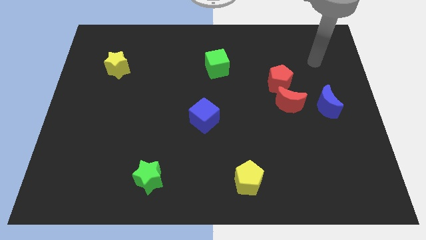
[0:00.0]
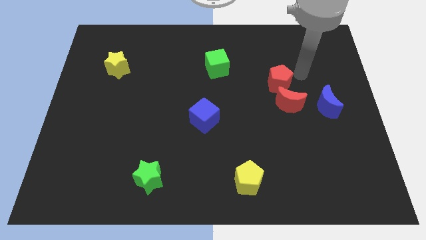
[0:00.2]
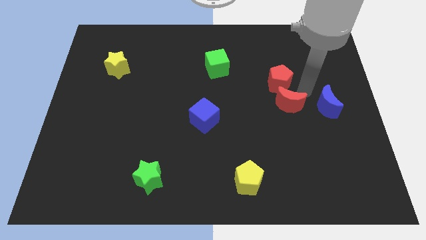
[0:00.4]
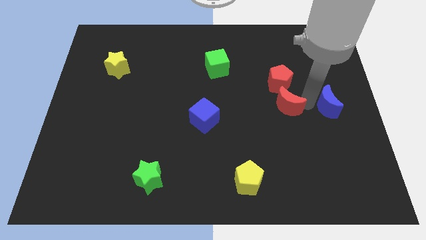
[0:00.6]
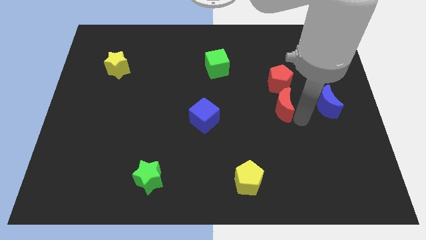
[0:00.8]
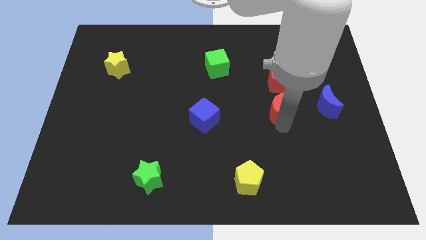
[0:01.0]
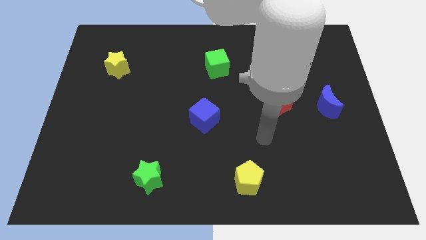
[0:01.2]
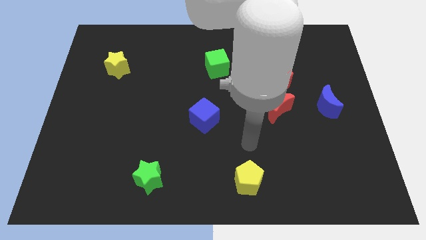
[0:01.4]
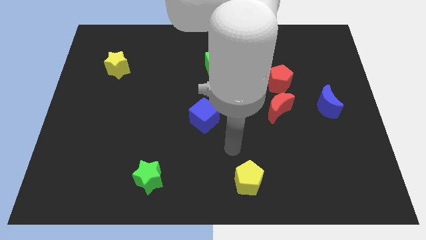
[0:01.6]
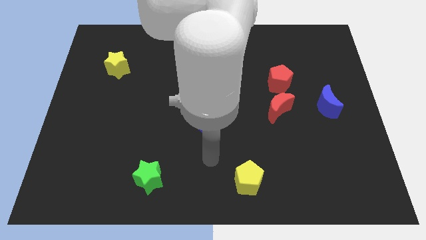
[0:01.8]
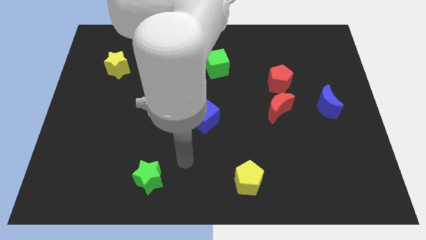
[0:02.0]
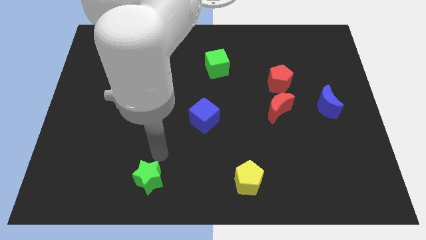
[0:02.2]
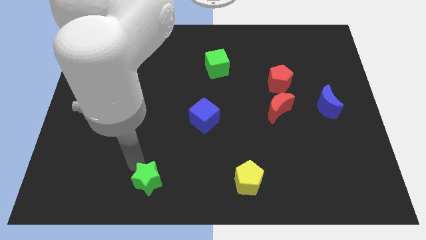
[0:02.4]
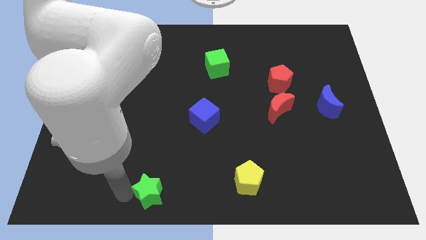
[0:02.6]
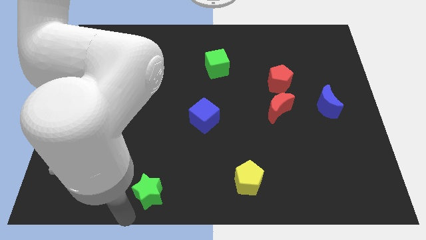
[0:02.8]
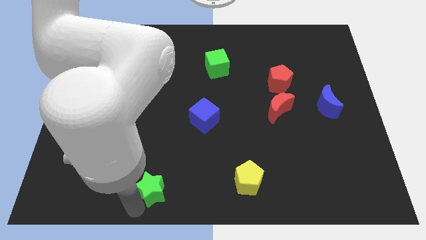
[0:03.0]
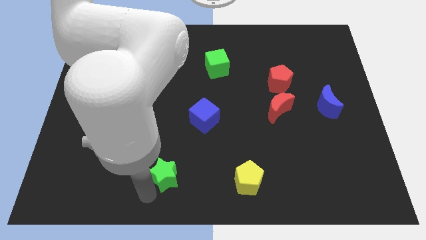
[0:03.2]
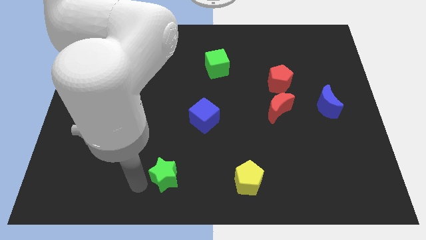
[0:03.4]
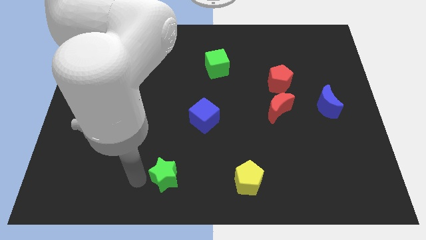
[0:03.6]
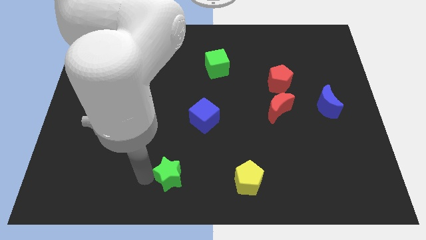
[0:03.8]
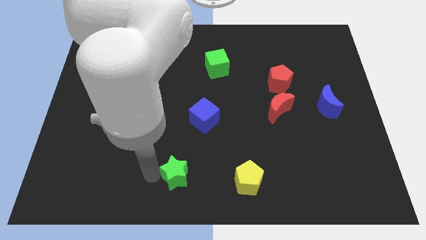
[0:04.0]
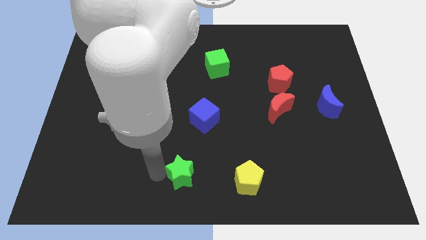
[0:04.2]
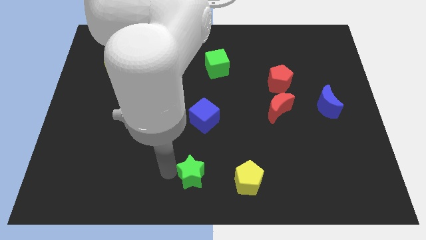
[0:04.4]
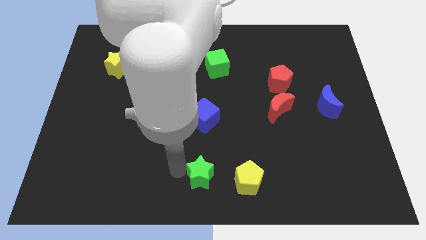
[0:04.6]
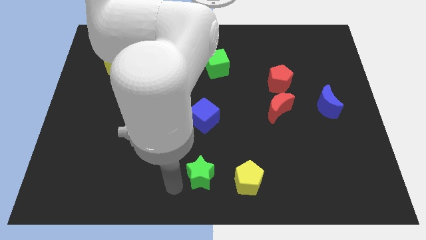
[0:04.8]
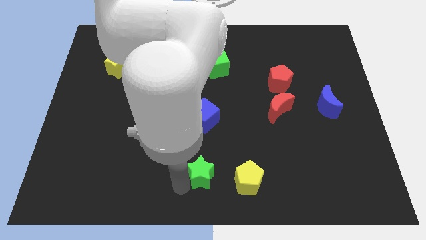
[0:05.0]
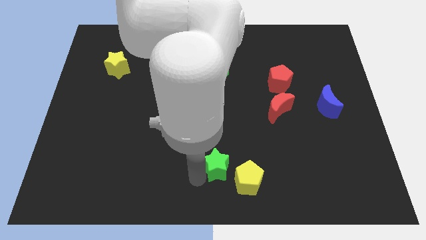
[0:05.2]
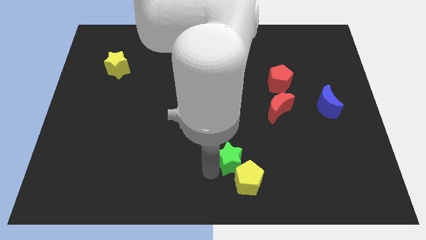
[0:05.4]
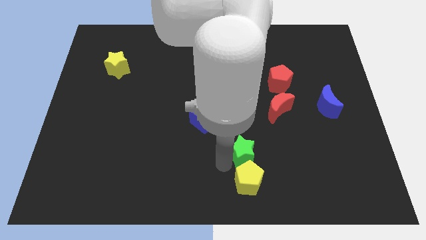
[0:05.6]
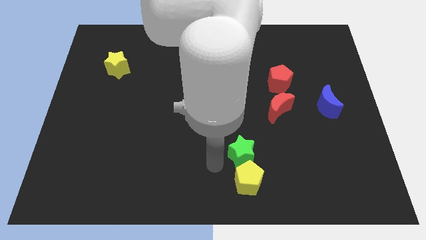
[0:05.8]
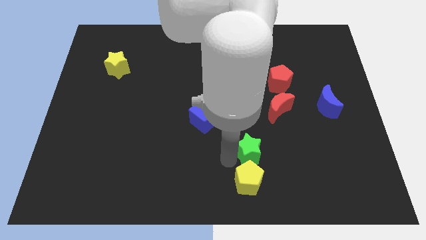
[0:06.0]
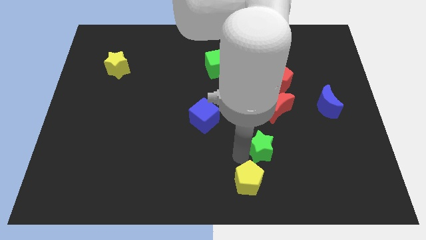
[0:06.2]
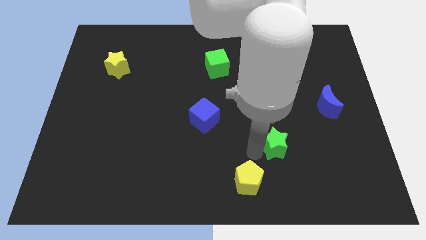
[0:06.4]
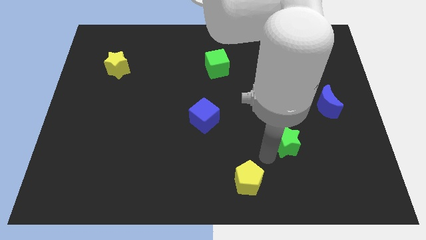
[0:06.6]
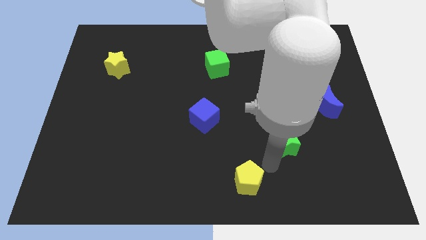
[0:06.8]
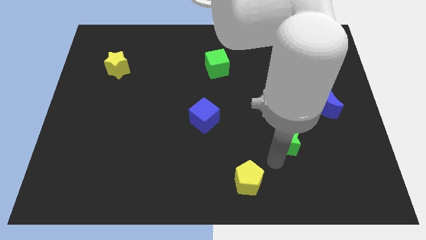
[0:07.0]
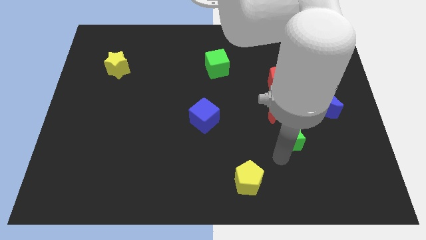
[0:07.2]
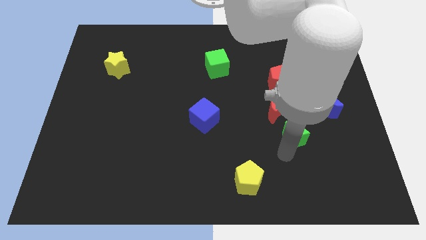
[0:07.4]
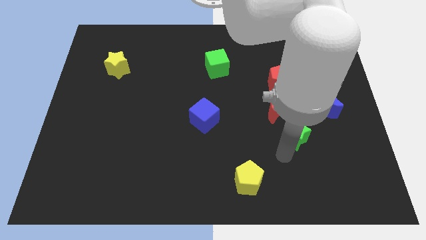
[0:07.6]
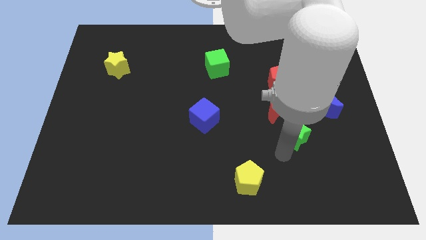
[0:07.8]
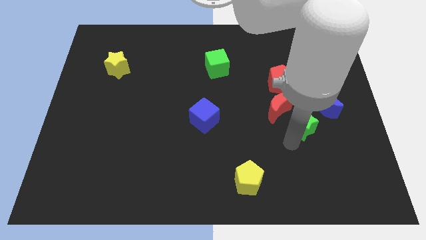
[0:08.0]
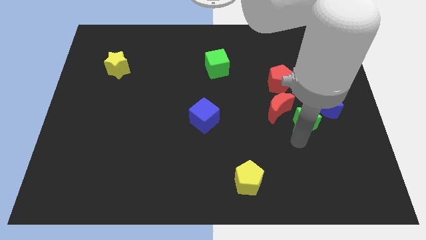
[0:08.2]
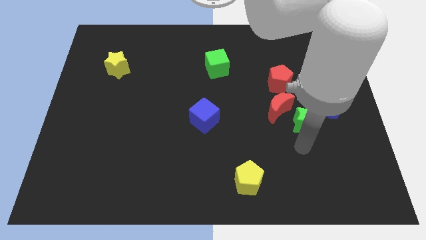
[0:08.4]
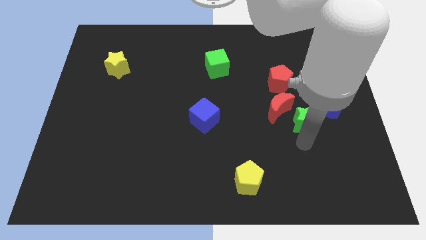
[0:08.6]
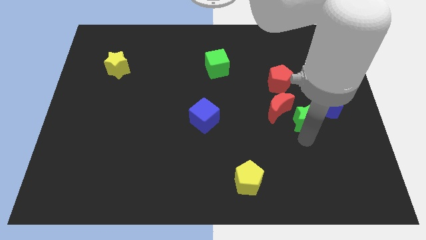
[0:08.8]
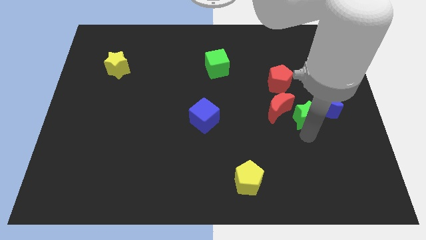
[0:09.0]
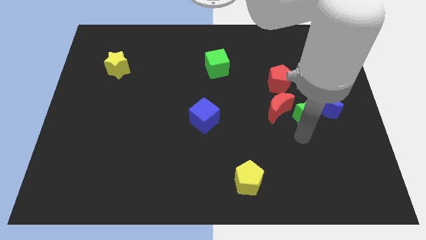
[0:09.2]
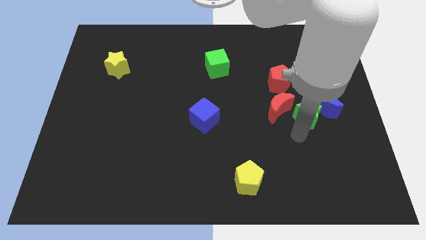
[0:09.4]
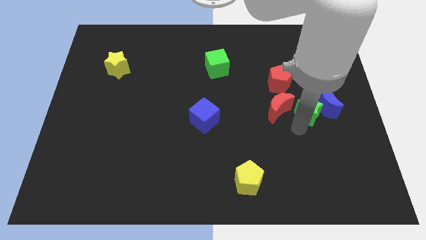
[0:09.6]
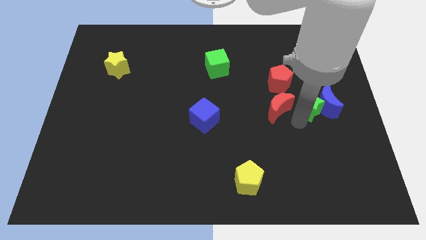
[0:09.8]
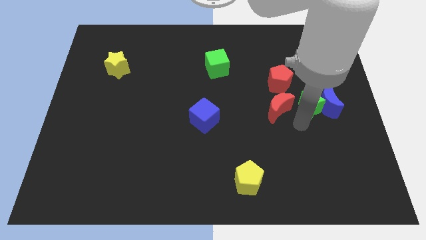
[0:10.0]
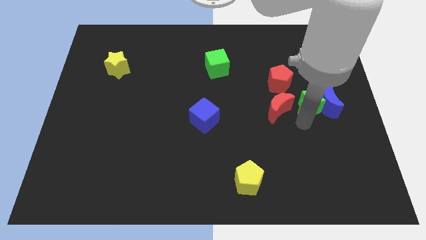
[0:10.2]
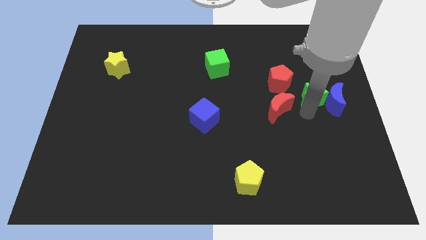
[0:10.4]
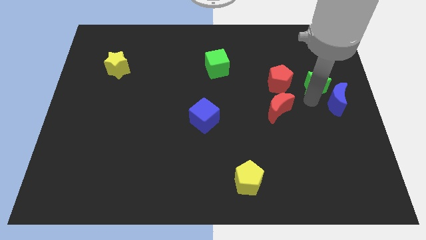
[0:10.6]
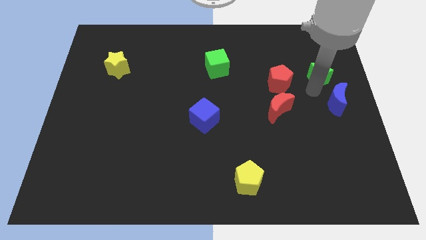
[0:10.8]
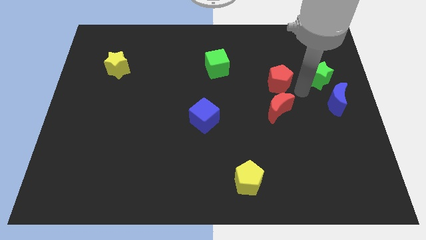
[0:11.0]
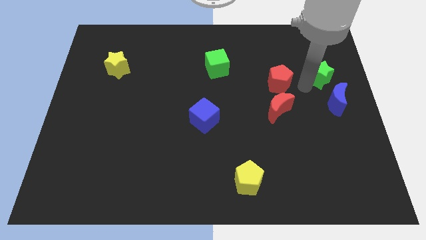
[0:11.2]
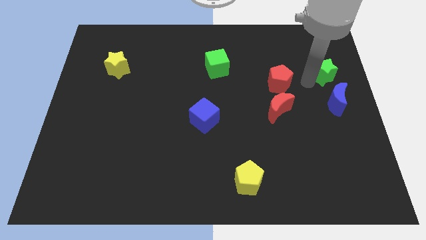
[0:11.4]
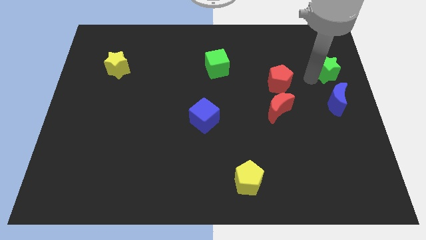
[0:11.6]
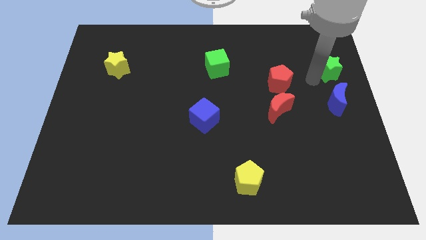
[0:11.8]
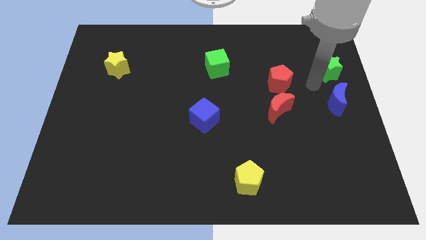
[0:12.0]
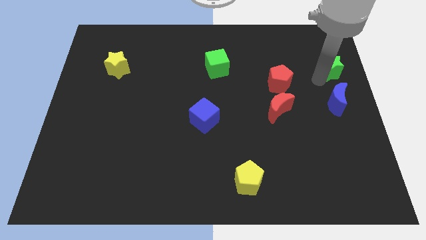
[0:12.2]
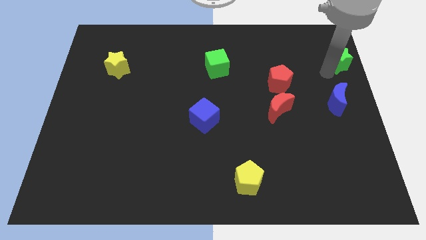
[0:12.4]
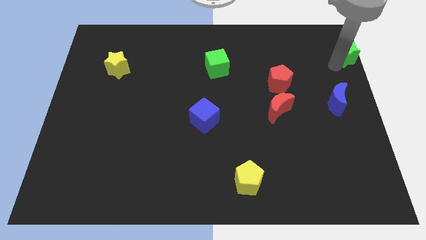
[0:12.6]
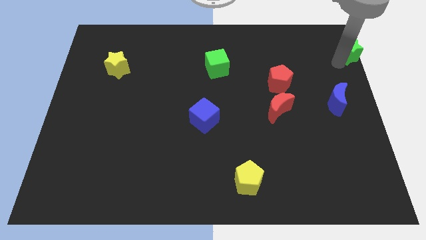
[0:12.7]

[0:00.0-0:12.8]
put the green star to the top right corner
